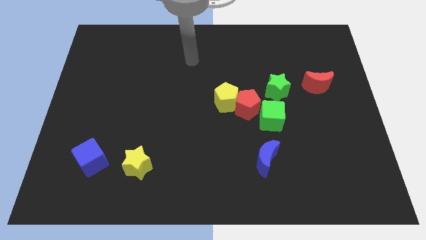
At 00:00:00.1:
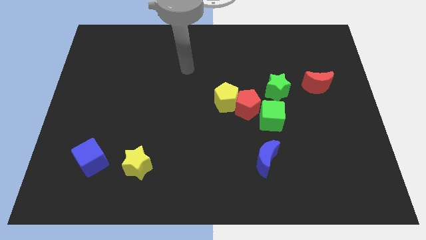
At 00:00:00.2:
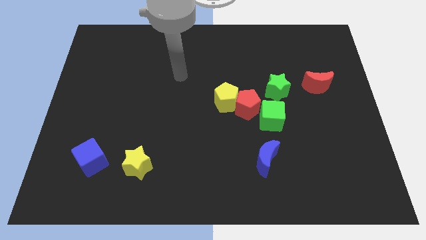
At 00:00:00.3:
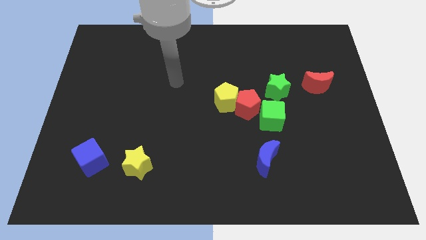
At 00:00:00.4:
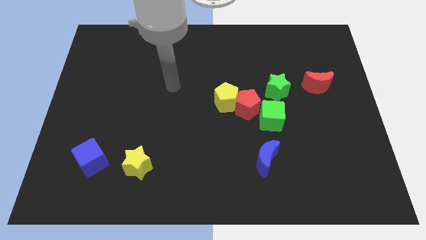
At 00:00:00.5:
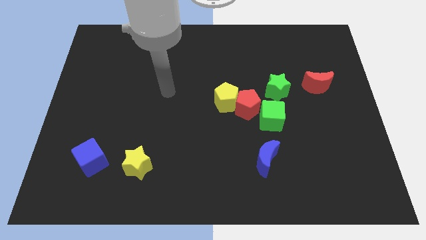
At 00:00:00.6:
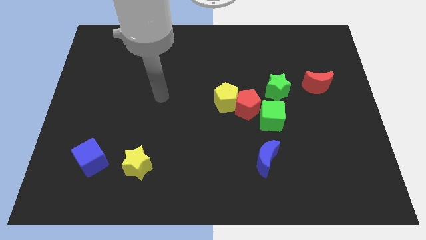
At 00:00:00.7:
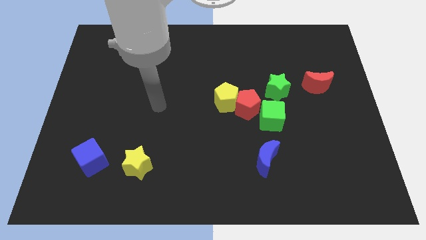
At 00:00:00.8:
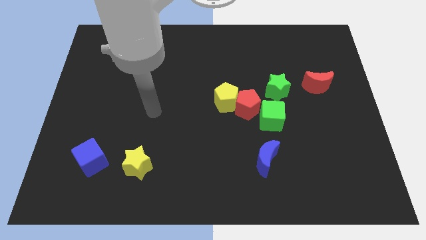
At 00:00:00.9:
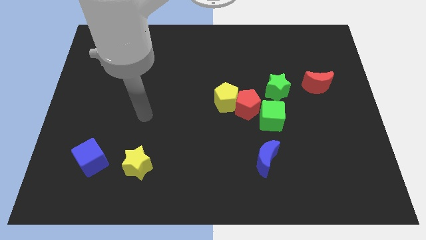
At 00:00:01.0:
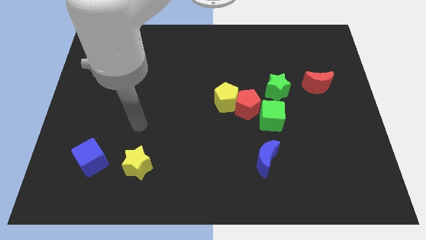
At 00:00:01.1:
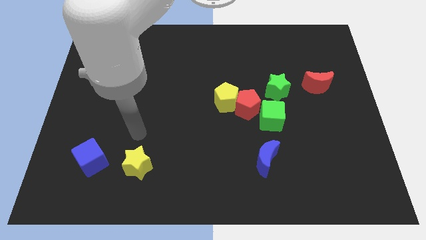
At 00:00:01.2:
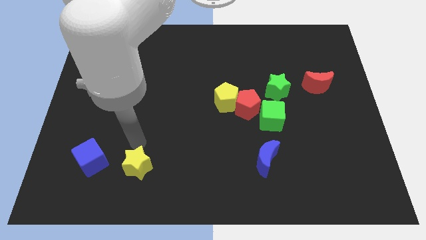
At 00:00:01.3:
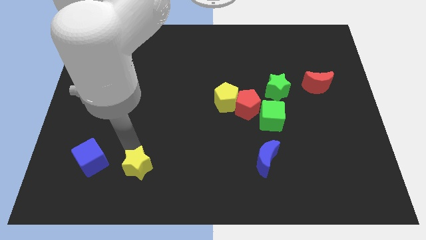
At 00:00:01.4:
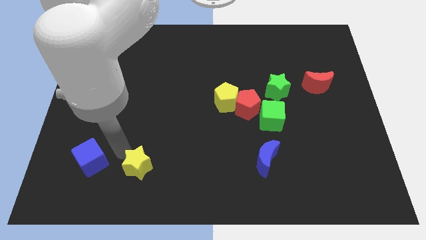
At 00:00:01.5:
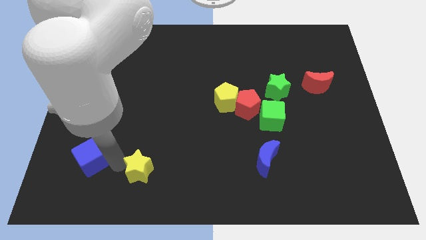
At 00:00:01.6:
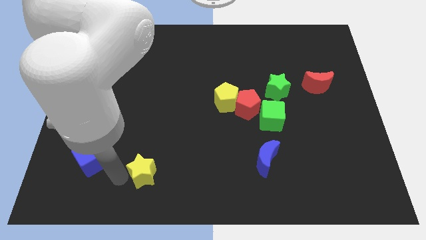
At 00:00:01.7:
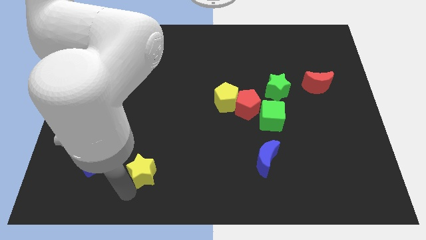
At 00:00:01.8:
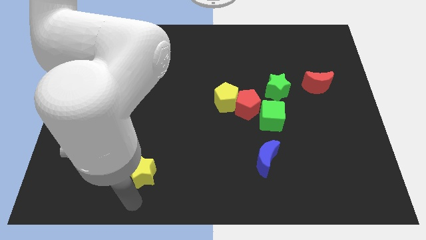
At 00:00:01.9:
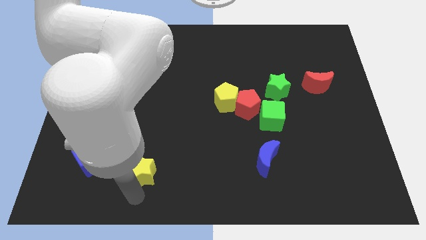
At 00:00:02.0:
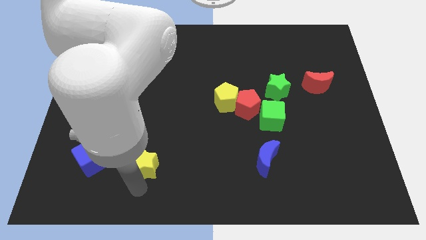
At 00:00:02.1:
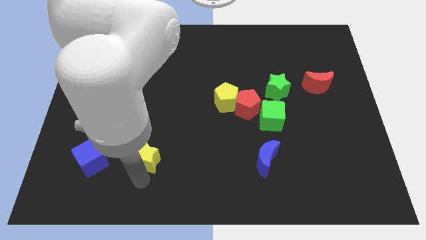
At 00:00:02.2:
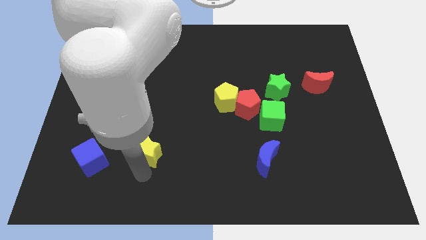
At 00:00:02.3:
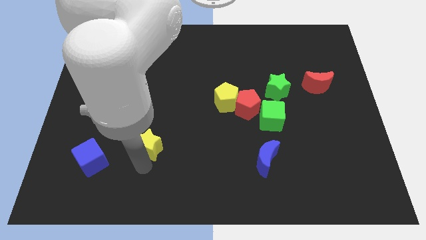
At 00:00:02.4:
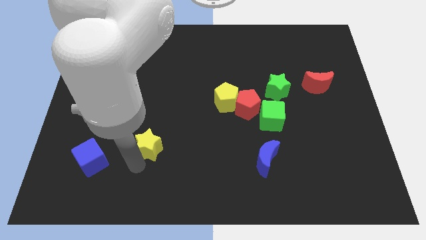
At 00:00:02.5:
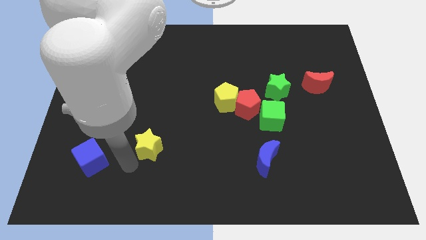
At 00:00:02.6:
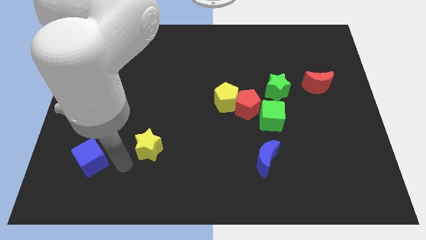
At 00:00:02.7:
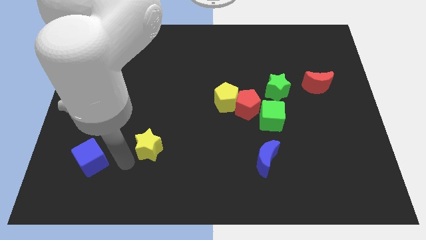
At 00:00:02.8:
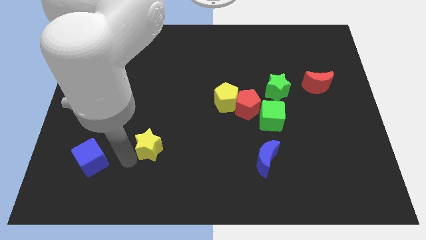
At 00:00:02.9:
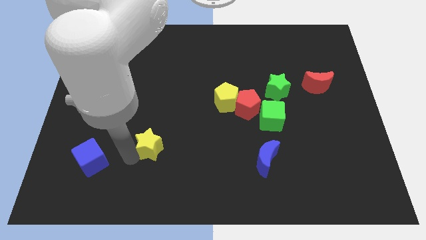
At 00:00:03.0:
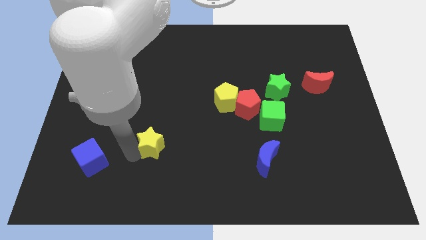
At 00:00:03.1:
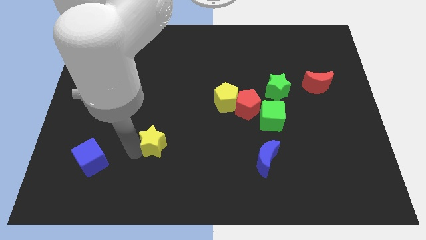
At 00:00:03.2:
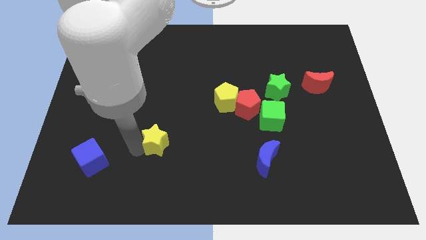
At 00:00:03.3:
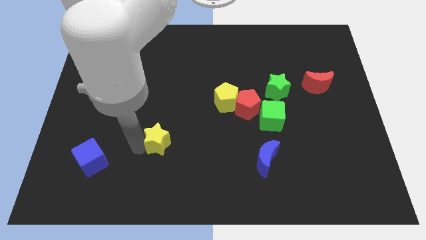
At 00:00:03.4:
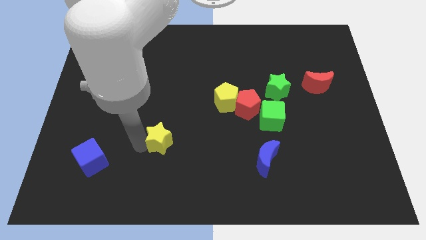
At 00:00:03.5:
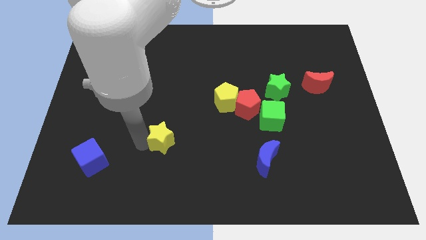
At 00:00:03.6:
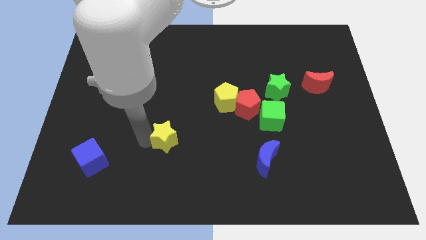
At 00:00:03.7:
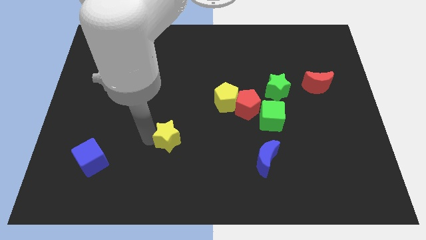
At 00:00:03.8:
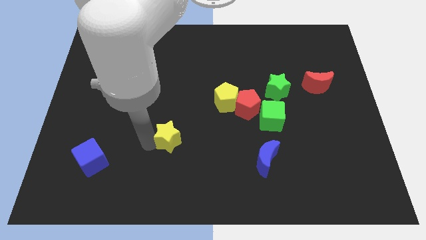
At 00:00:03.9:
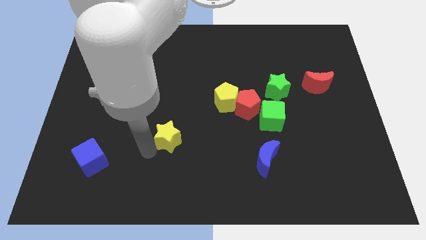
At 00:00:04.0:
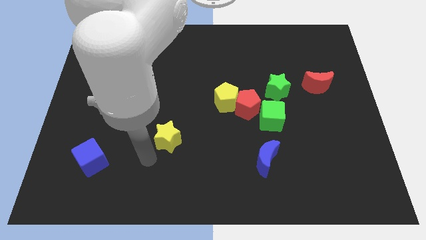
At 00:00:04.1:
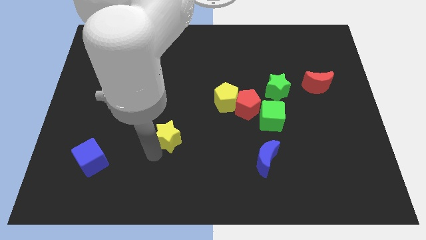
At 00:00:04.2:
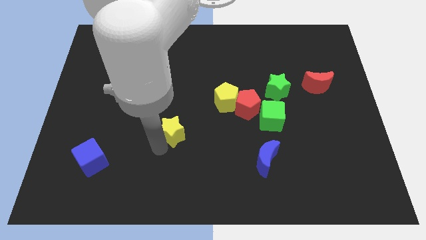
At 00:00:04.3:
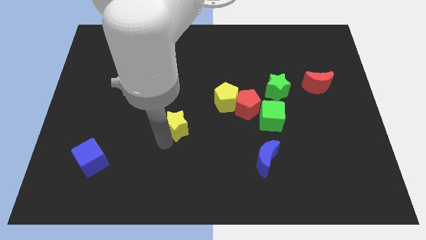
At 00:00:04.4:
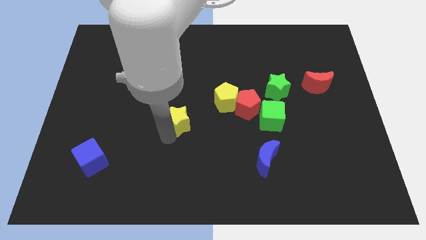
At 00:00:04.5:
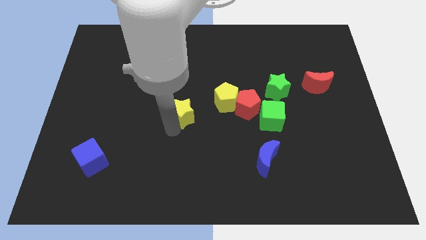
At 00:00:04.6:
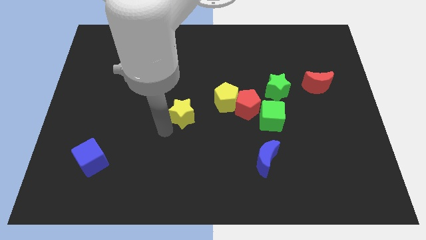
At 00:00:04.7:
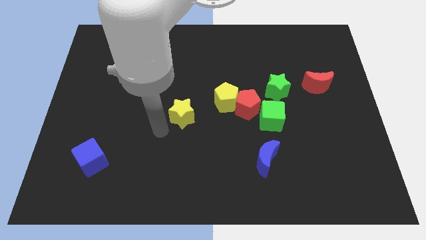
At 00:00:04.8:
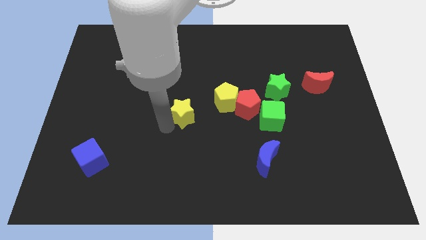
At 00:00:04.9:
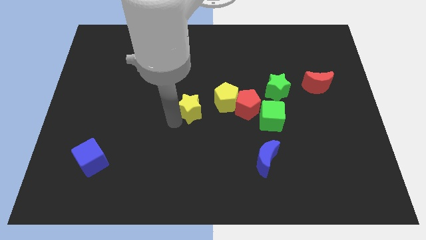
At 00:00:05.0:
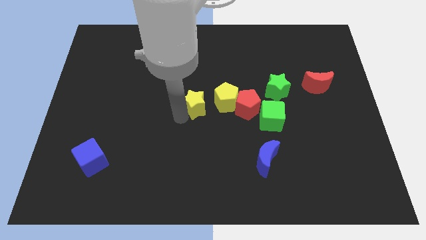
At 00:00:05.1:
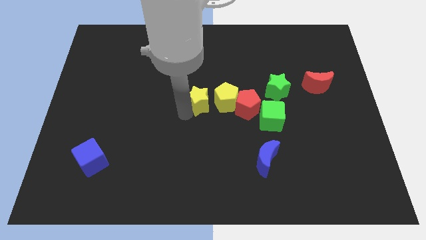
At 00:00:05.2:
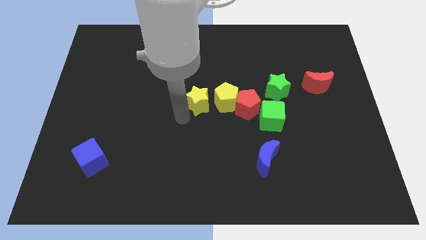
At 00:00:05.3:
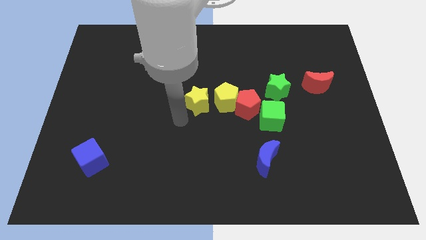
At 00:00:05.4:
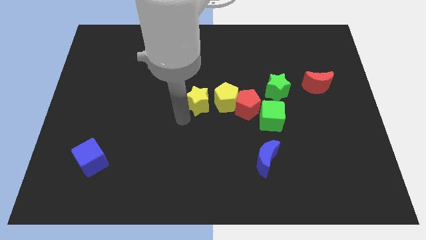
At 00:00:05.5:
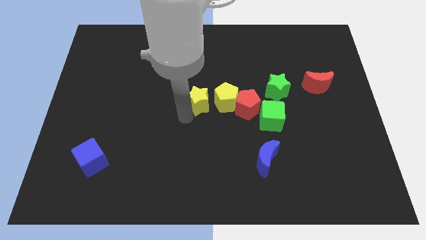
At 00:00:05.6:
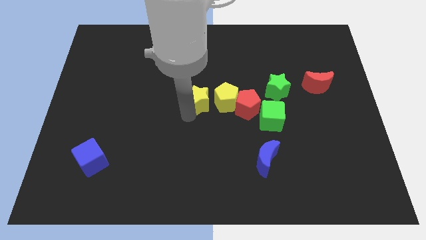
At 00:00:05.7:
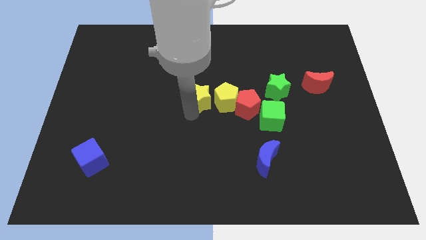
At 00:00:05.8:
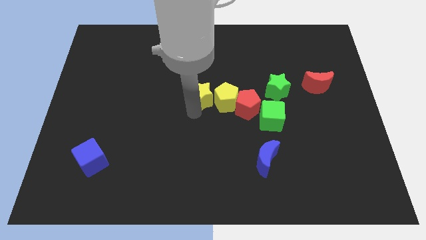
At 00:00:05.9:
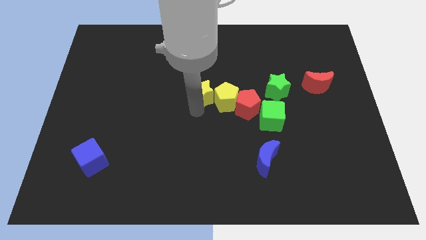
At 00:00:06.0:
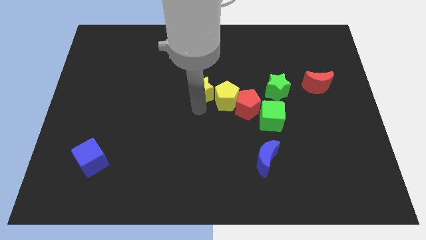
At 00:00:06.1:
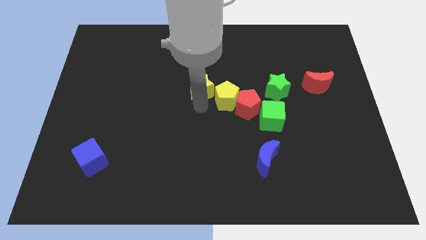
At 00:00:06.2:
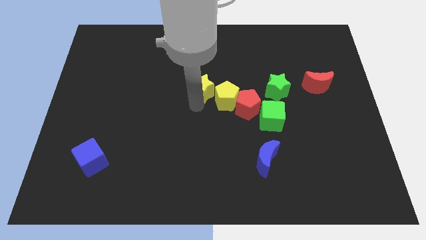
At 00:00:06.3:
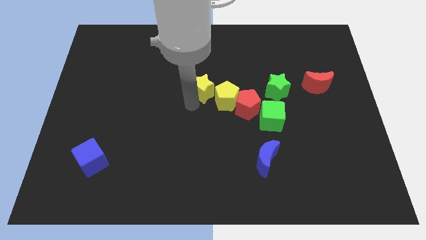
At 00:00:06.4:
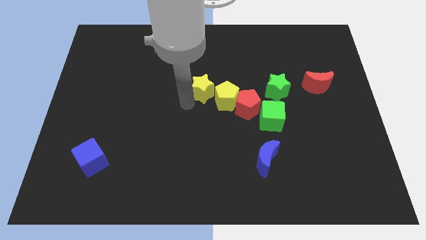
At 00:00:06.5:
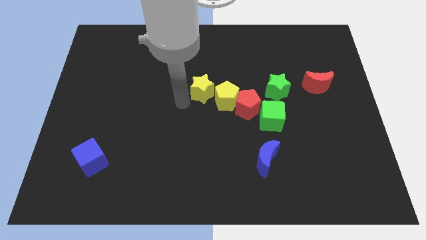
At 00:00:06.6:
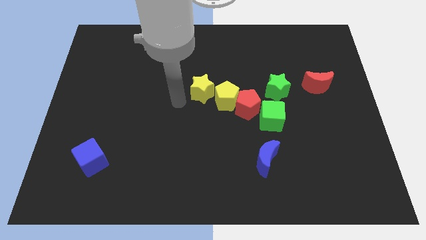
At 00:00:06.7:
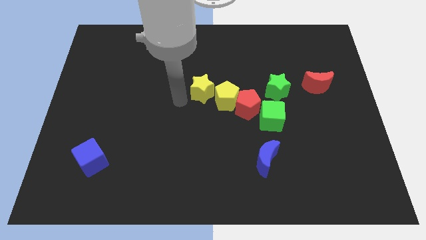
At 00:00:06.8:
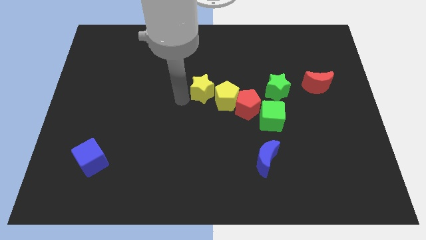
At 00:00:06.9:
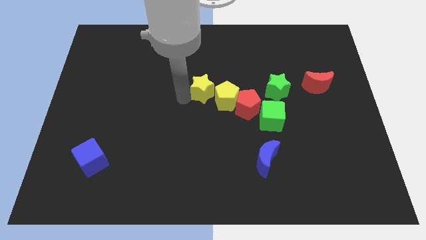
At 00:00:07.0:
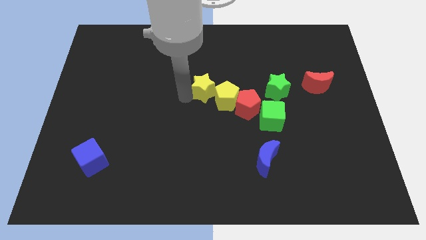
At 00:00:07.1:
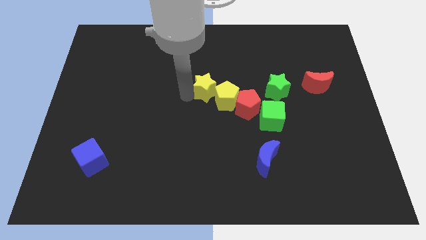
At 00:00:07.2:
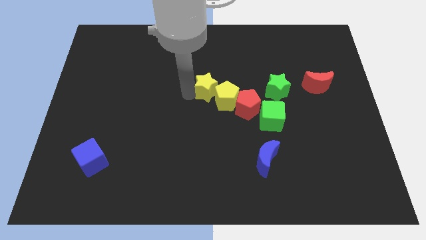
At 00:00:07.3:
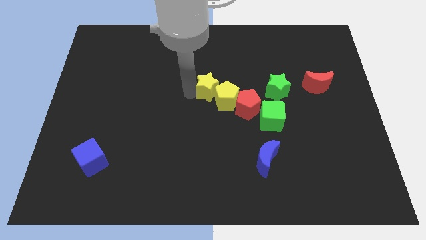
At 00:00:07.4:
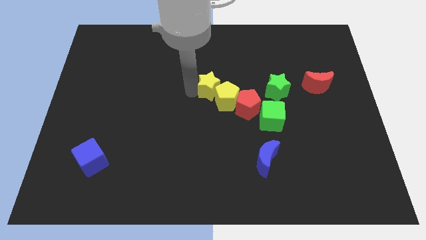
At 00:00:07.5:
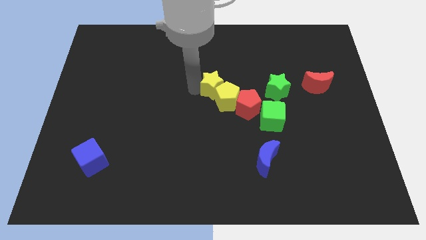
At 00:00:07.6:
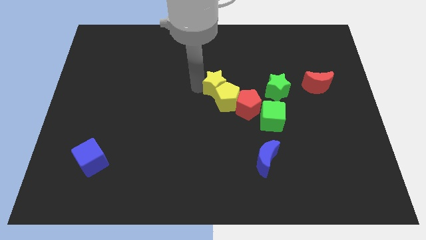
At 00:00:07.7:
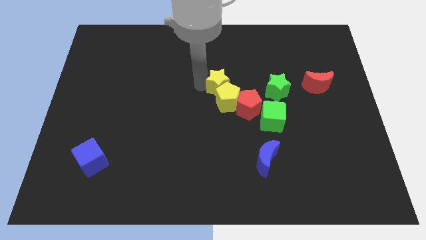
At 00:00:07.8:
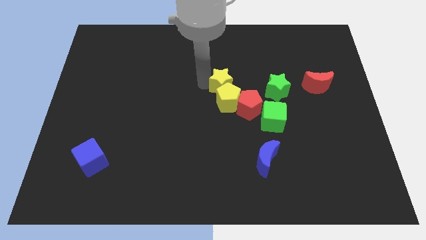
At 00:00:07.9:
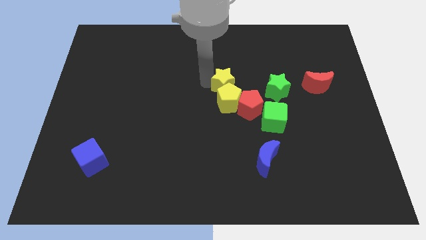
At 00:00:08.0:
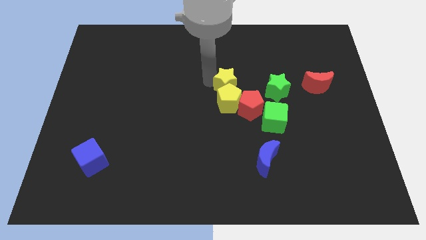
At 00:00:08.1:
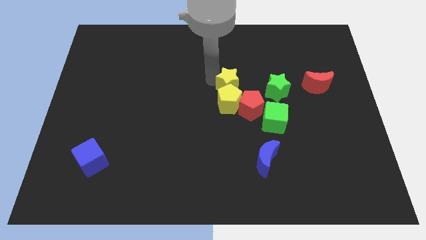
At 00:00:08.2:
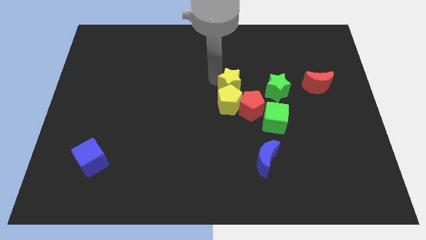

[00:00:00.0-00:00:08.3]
move the yellow star to the top side of the red pentagon
